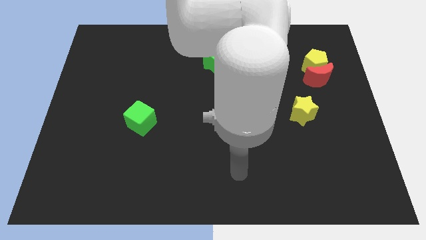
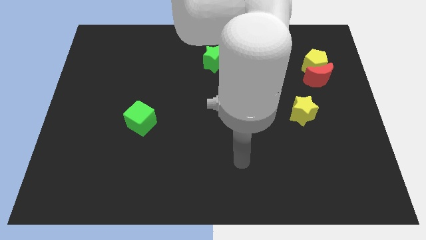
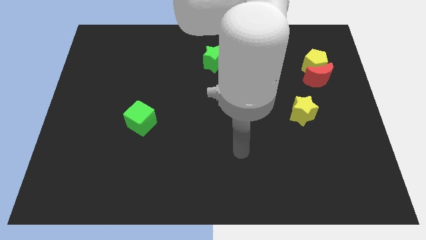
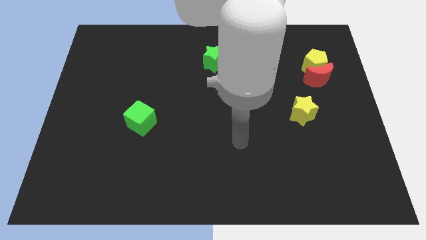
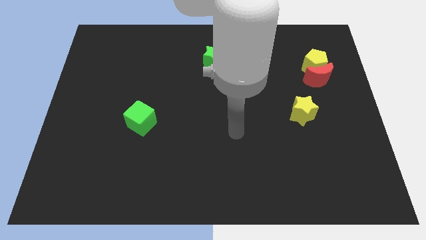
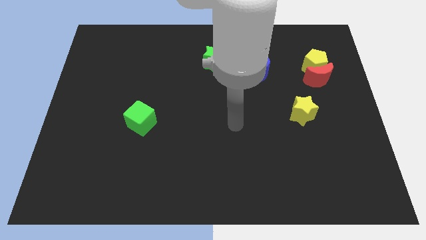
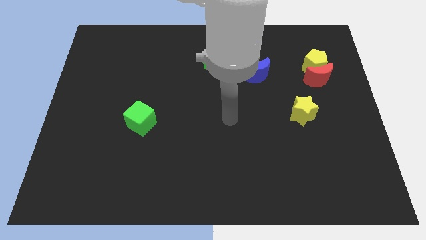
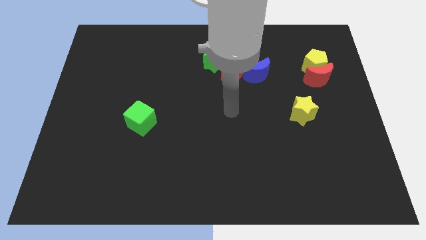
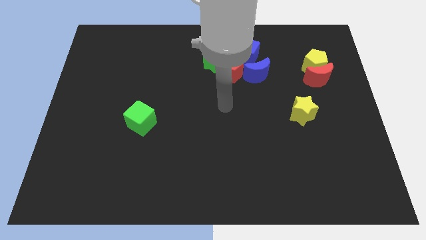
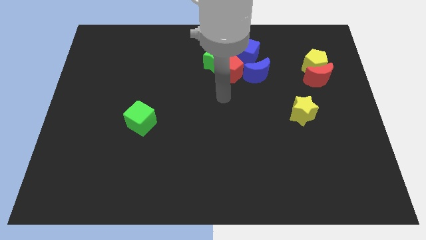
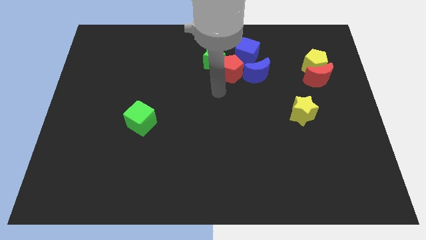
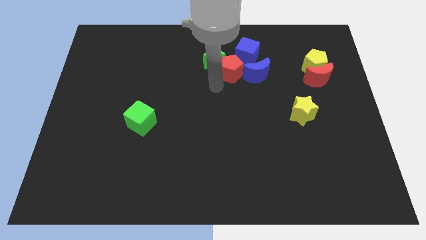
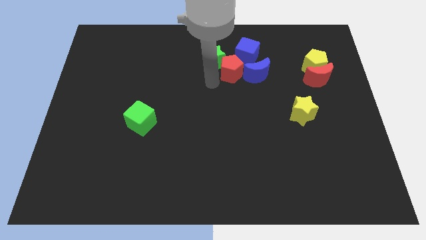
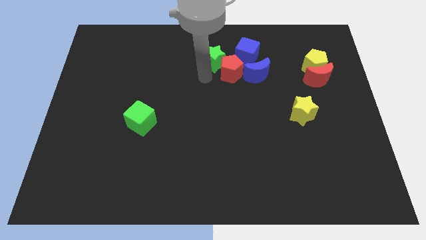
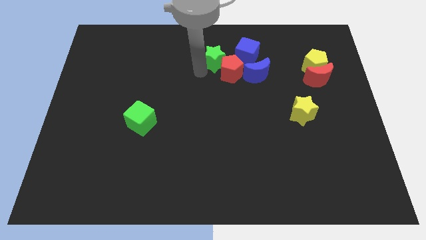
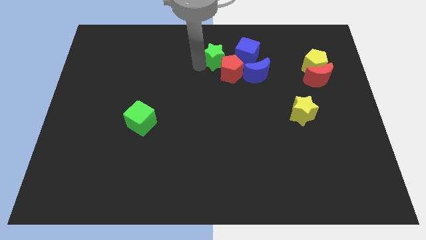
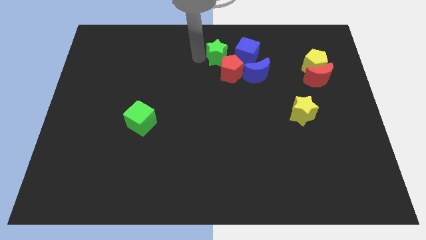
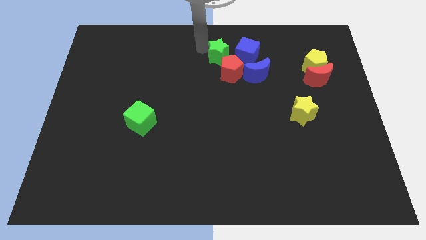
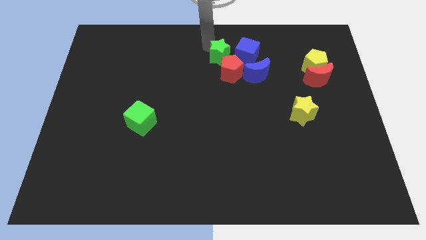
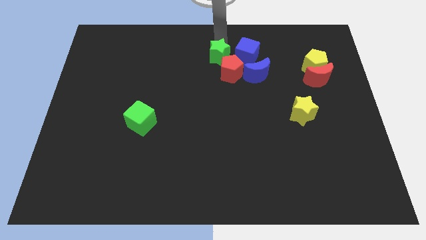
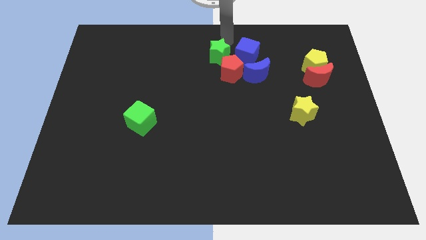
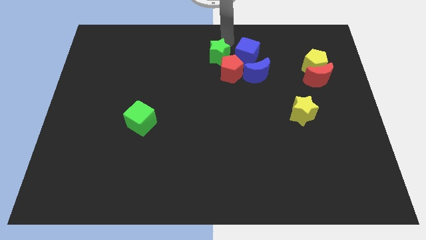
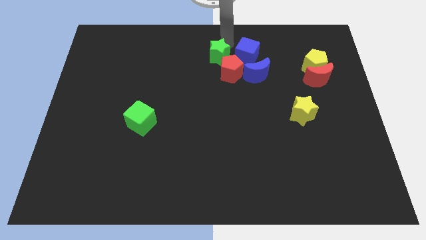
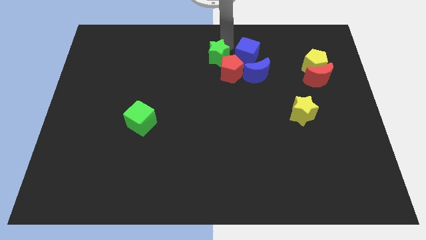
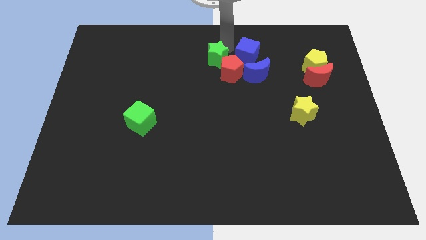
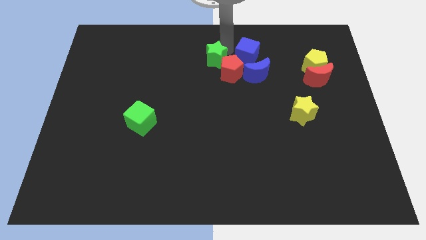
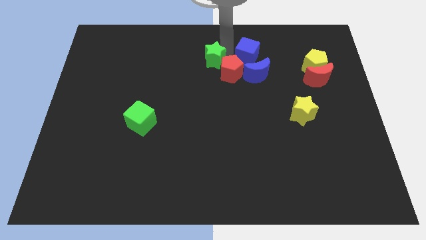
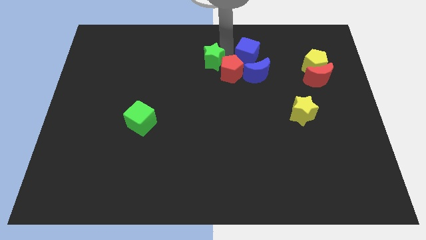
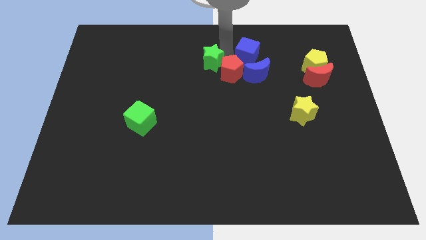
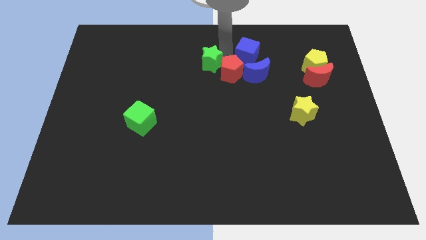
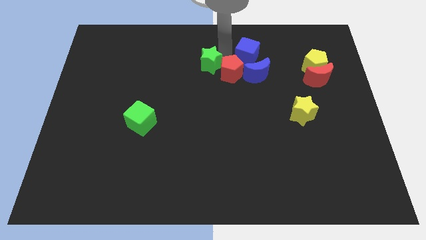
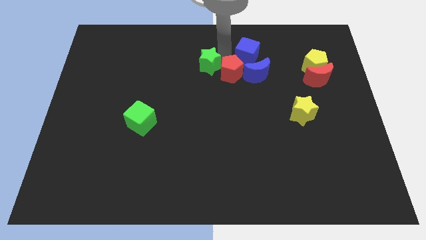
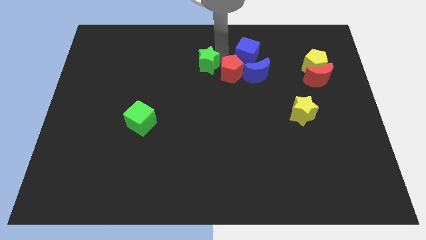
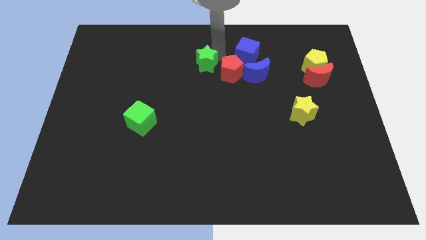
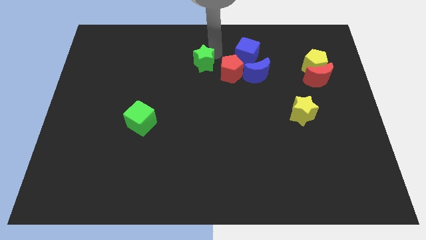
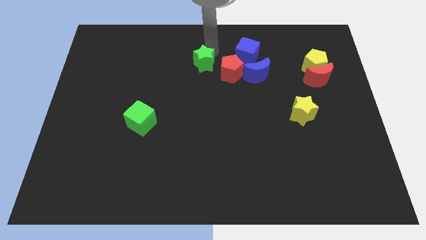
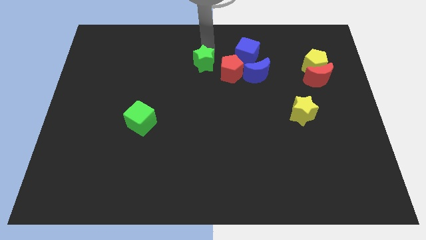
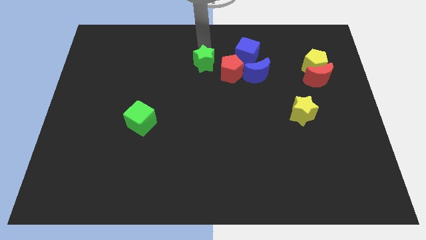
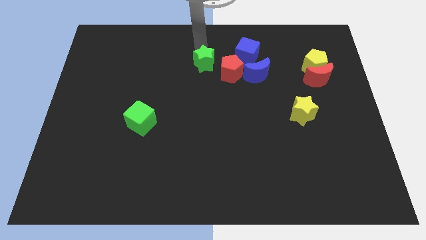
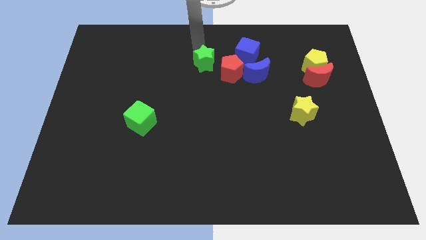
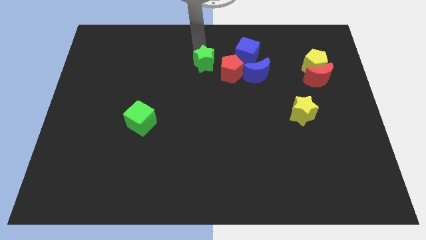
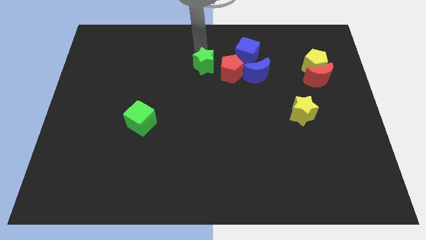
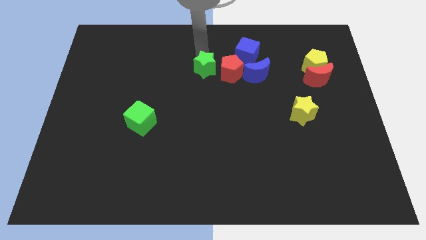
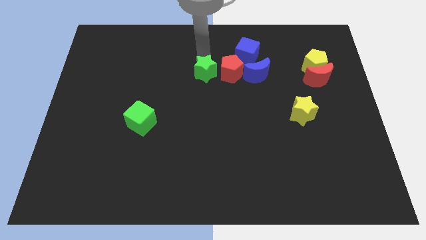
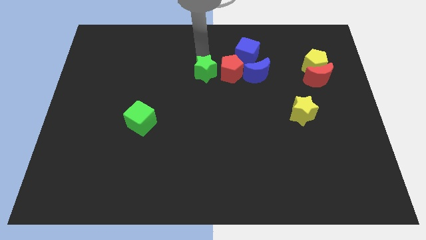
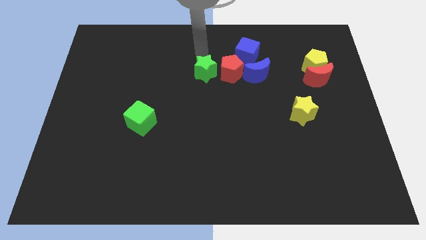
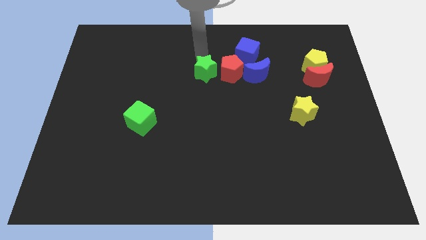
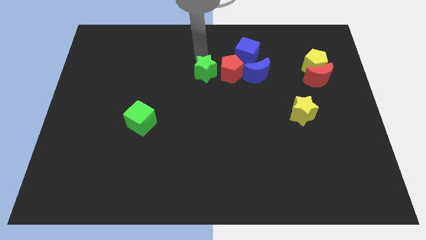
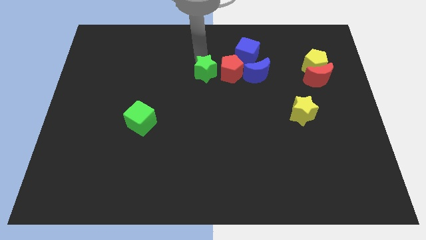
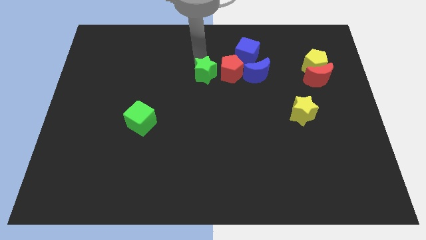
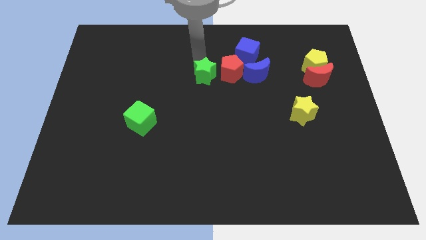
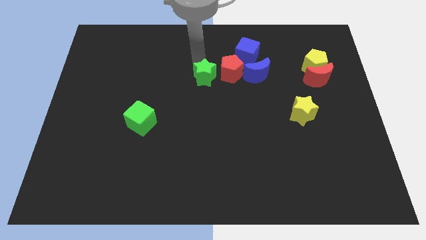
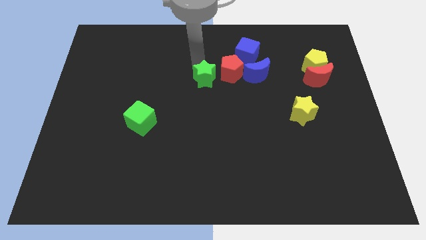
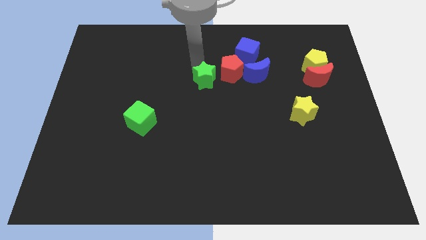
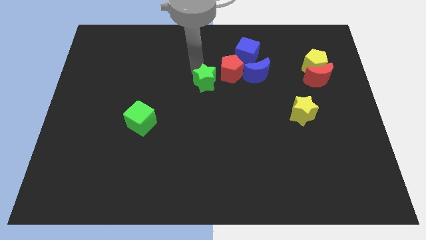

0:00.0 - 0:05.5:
slightly move the green star down

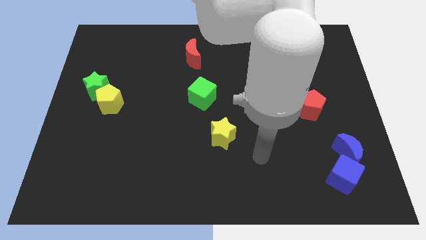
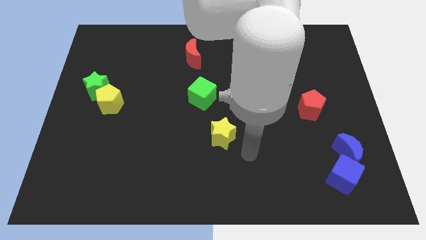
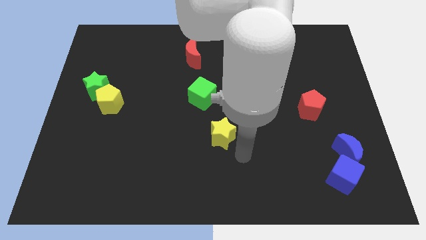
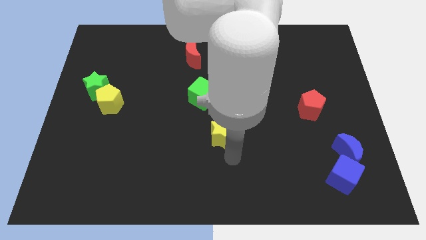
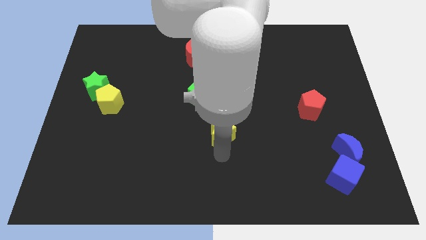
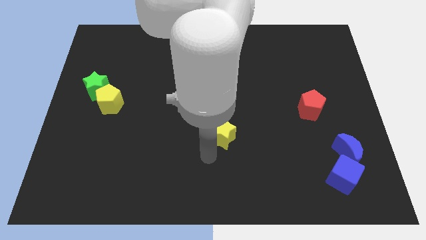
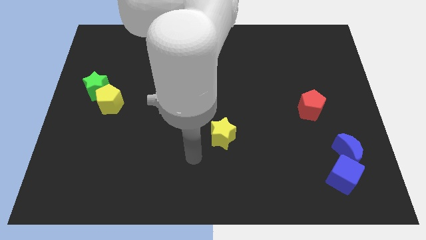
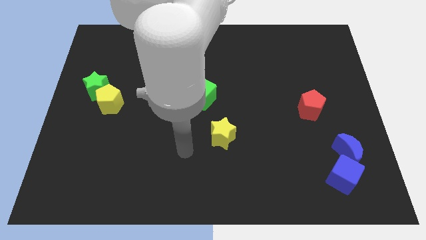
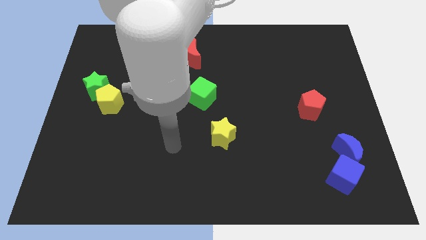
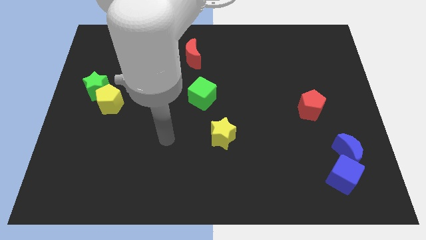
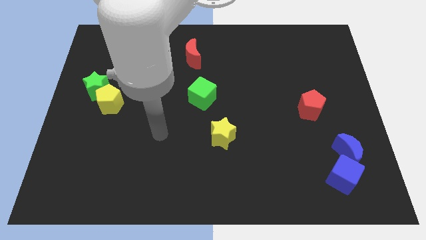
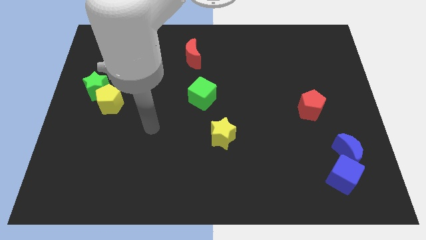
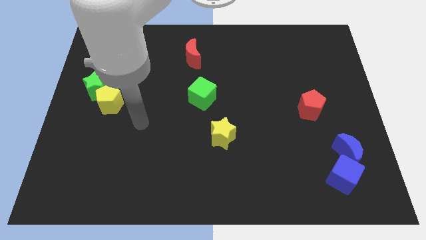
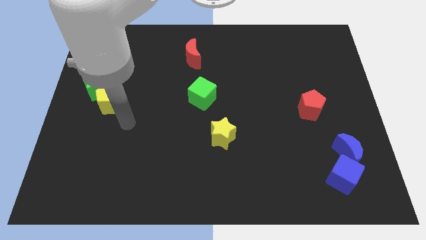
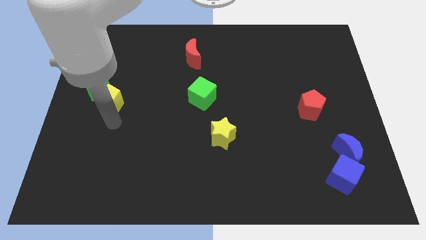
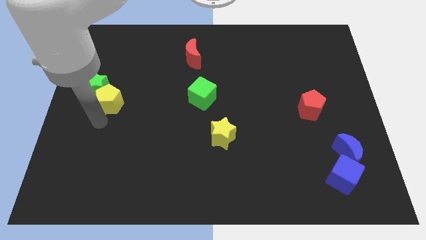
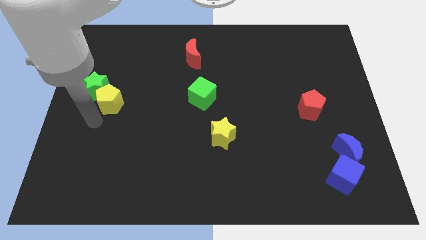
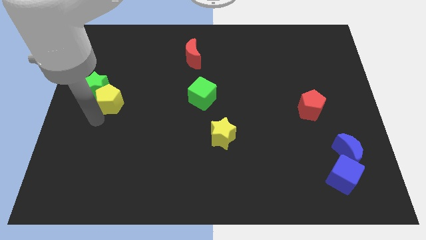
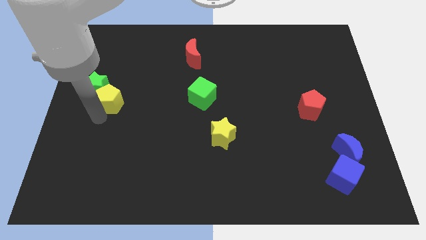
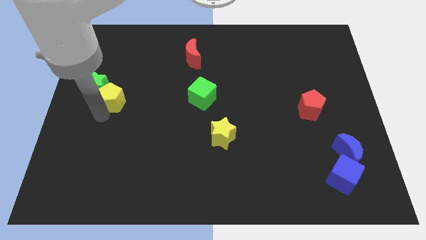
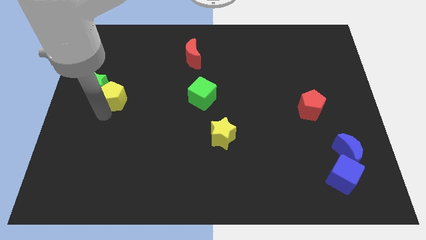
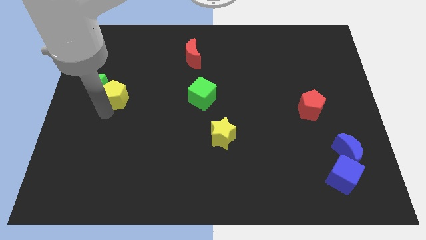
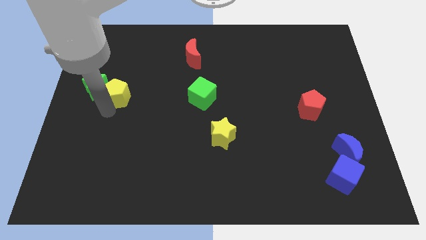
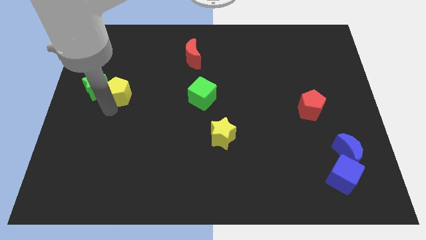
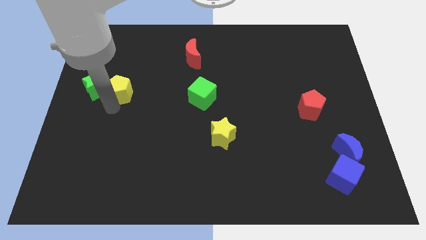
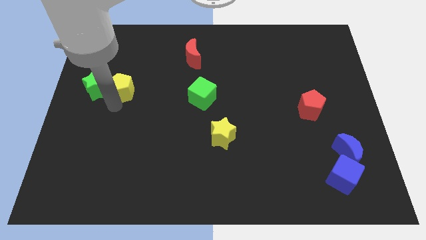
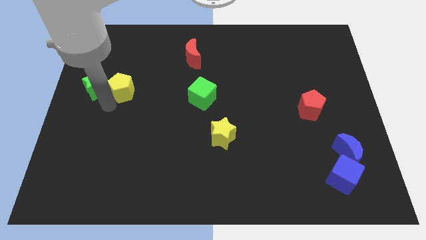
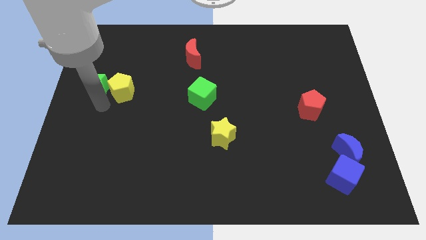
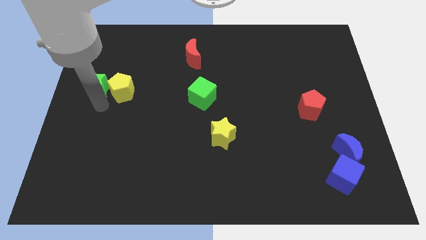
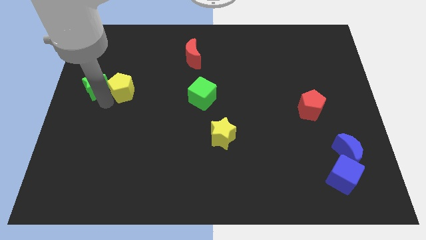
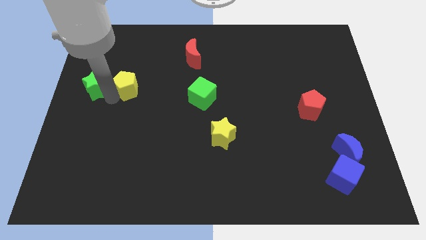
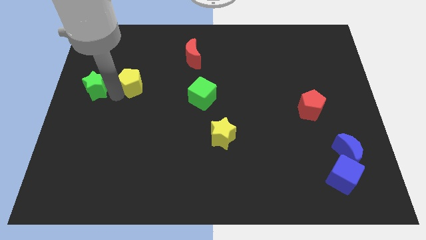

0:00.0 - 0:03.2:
push the yellow pentagon a bit upwards and then right
